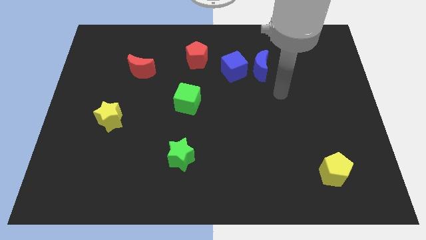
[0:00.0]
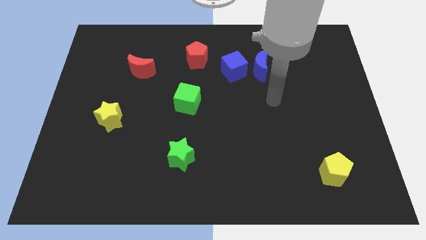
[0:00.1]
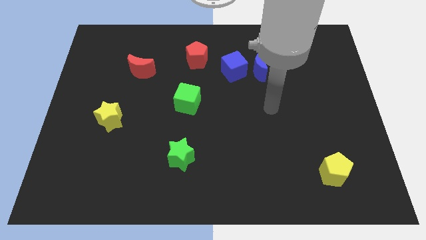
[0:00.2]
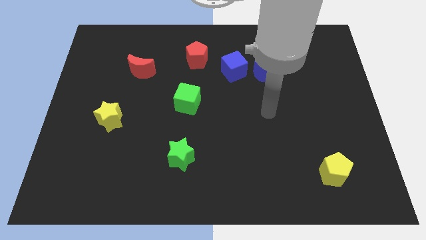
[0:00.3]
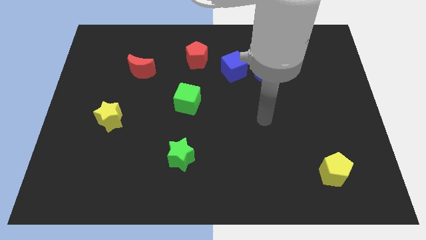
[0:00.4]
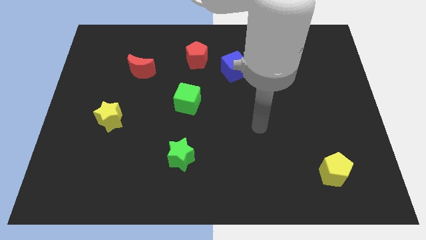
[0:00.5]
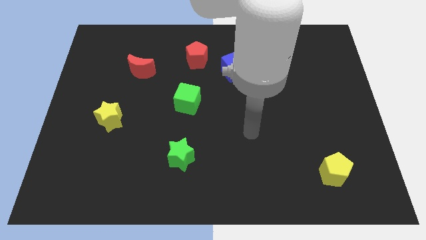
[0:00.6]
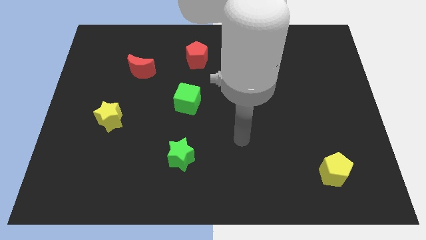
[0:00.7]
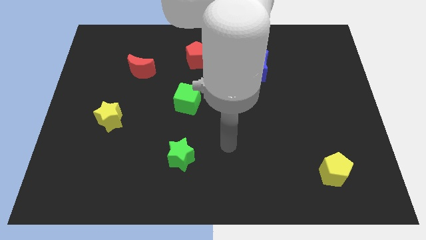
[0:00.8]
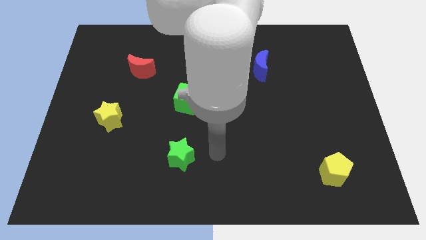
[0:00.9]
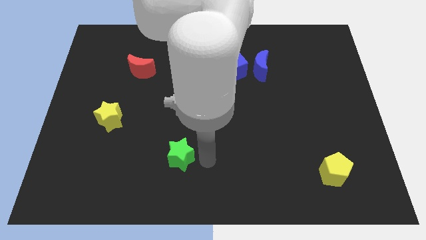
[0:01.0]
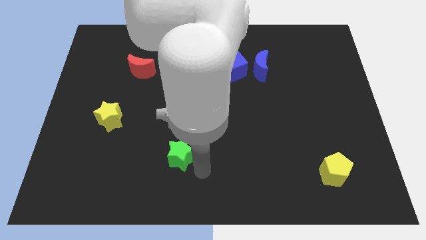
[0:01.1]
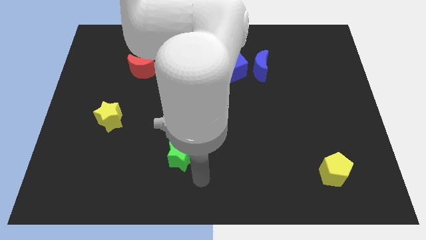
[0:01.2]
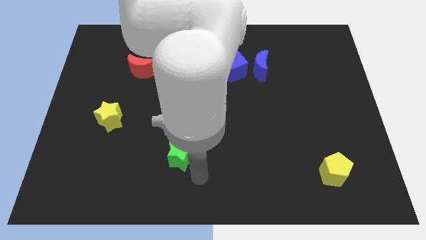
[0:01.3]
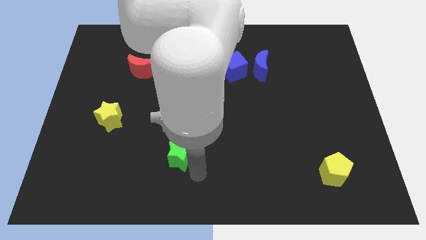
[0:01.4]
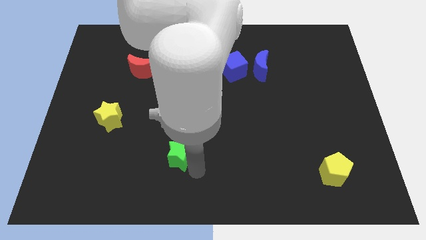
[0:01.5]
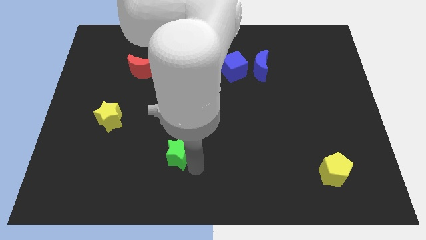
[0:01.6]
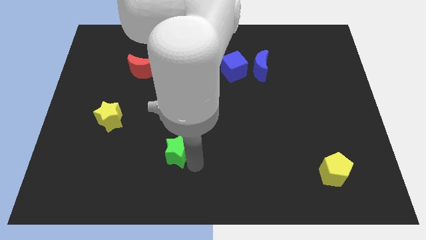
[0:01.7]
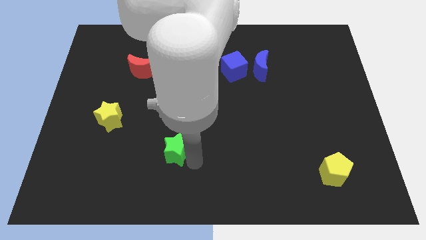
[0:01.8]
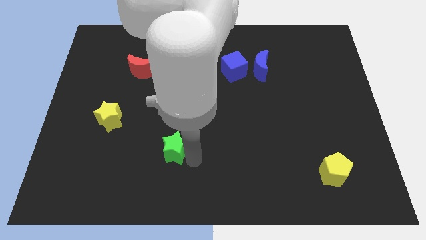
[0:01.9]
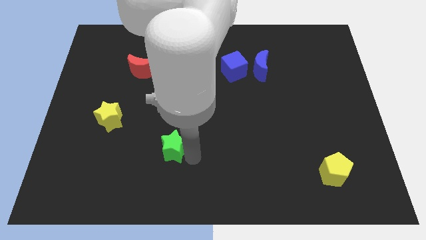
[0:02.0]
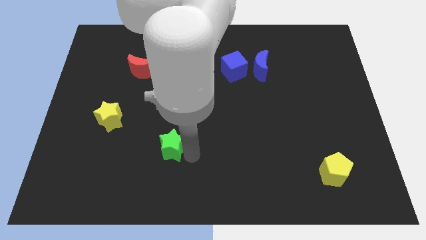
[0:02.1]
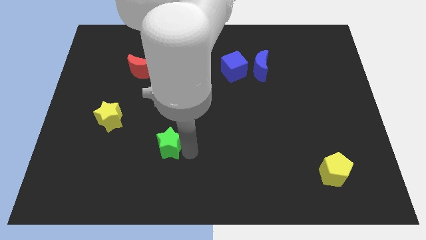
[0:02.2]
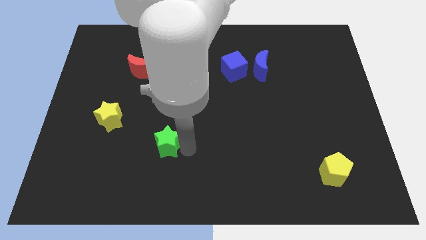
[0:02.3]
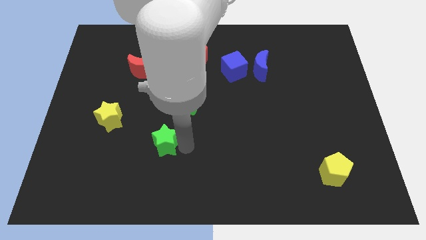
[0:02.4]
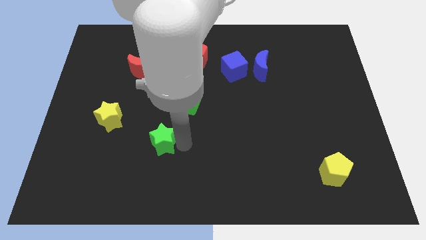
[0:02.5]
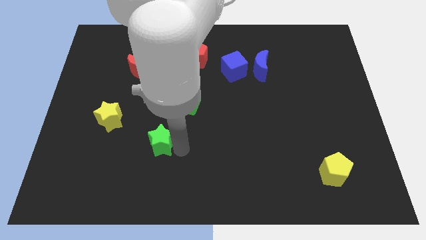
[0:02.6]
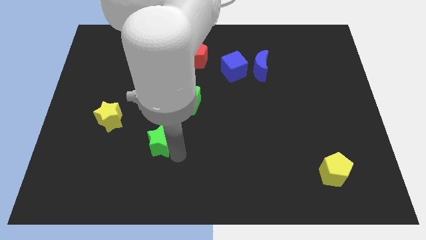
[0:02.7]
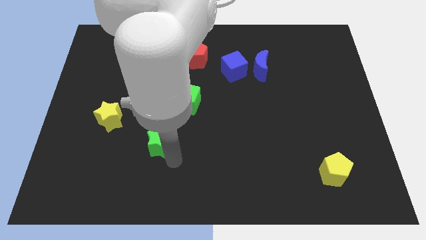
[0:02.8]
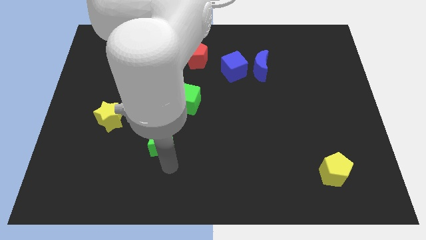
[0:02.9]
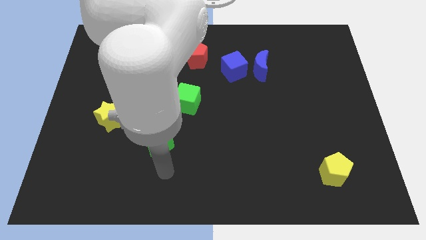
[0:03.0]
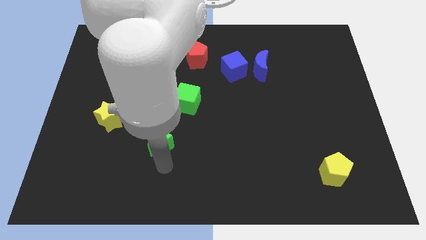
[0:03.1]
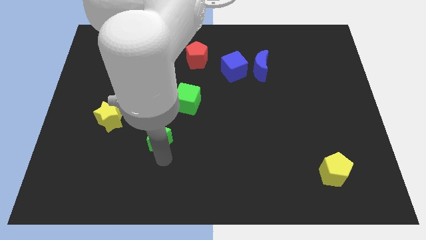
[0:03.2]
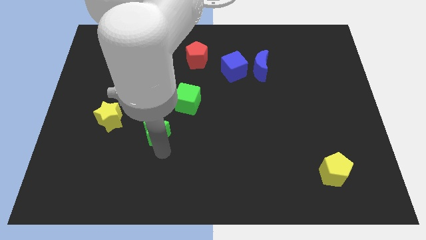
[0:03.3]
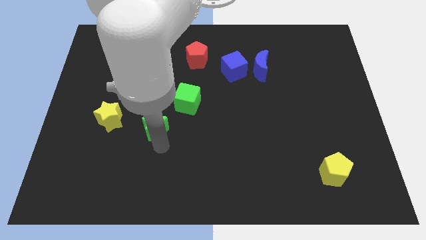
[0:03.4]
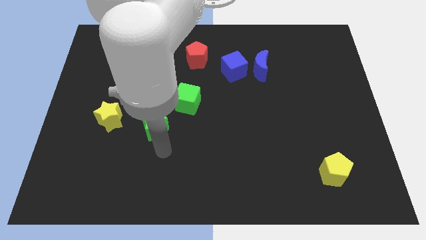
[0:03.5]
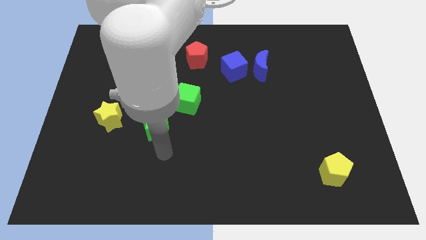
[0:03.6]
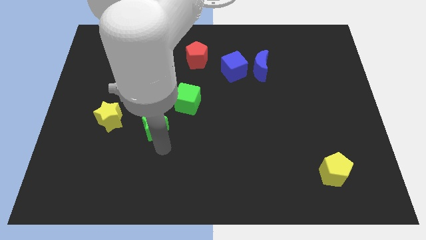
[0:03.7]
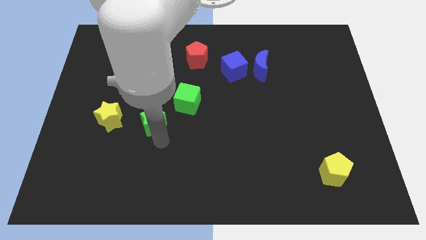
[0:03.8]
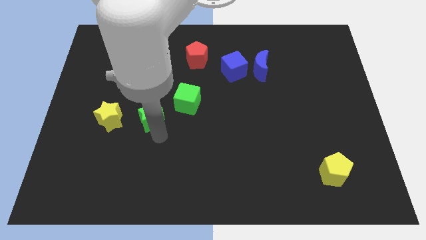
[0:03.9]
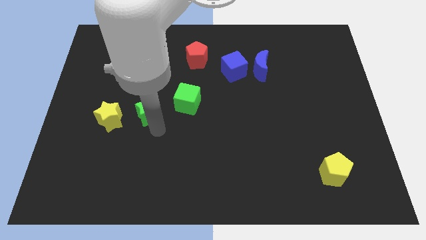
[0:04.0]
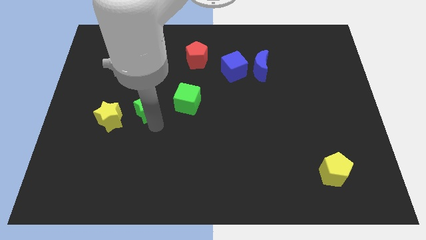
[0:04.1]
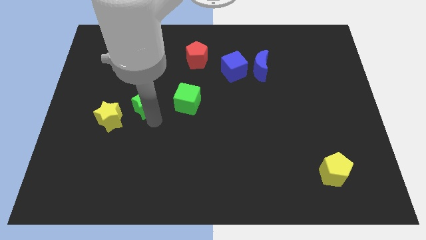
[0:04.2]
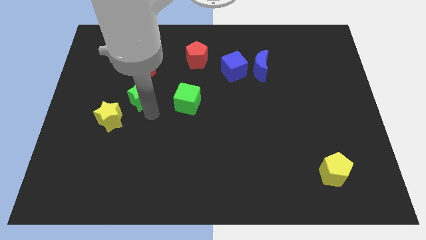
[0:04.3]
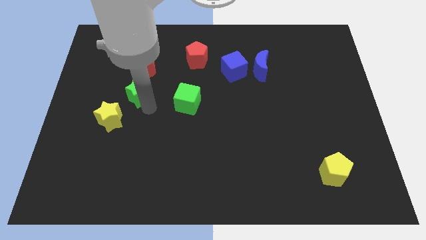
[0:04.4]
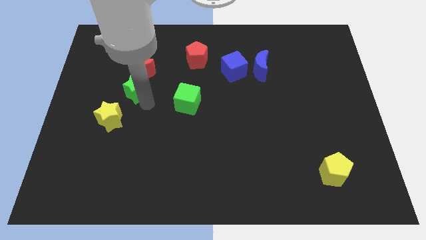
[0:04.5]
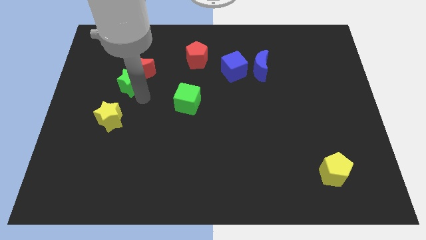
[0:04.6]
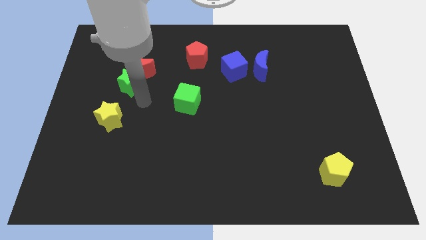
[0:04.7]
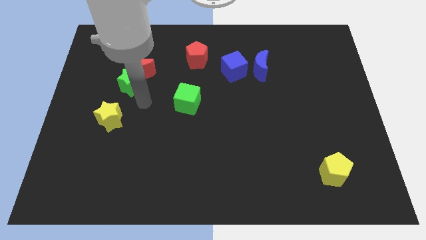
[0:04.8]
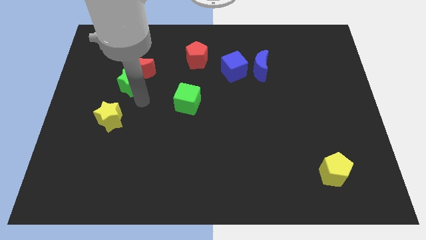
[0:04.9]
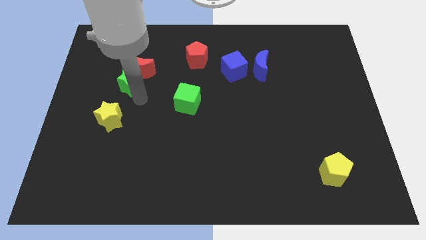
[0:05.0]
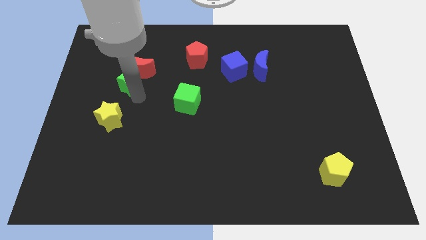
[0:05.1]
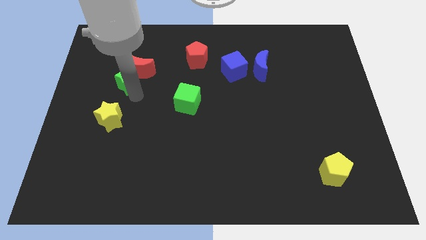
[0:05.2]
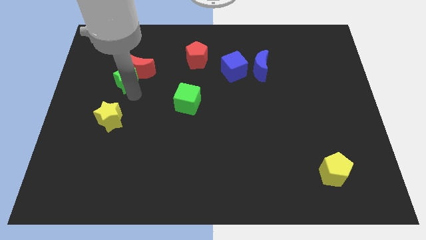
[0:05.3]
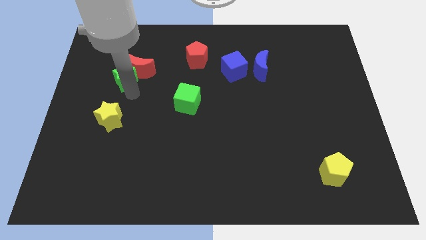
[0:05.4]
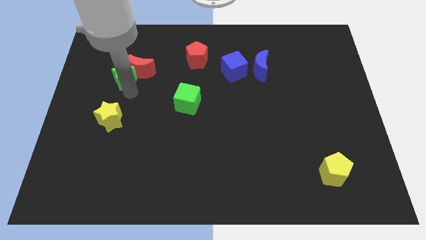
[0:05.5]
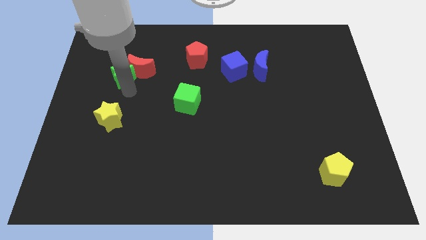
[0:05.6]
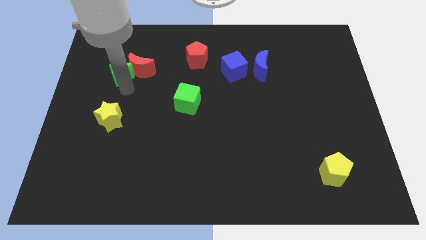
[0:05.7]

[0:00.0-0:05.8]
put the green star diagonally up and to the left of the red moon

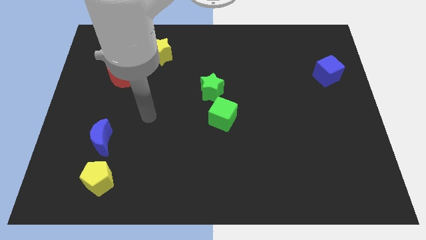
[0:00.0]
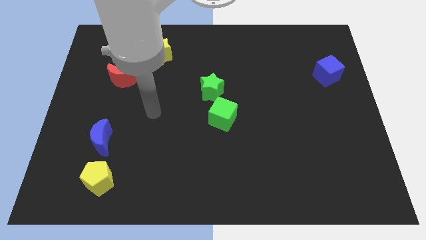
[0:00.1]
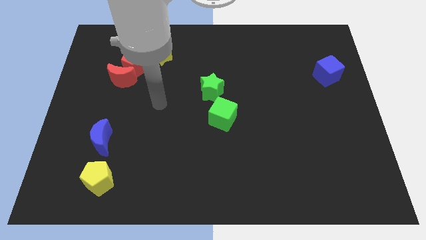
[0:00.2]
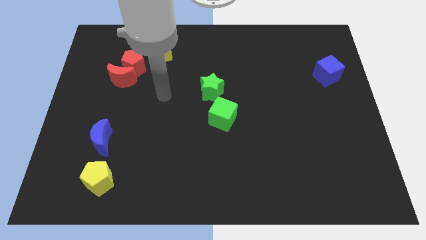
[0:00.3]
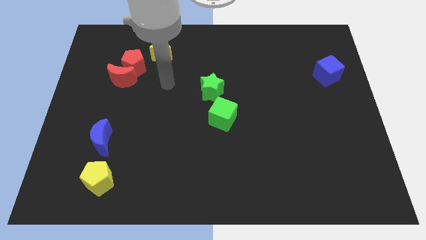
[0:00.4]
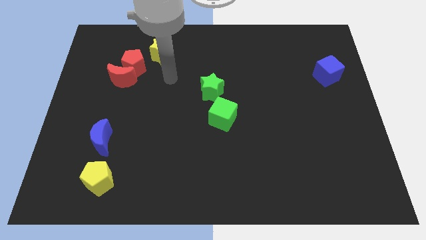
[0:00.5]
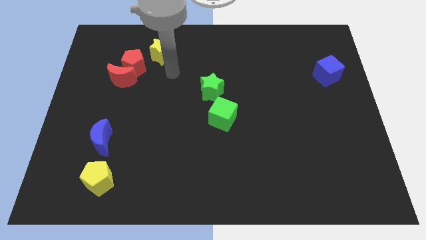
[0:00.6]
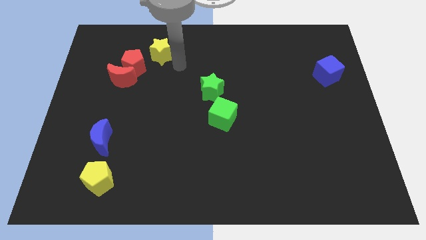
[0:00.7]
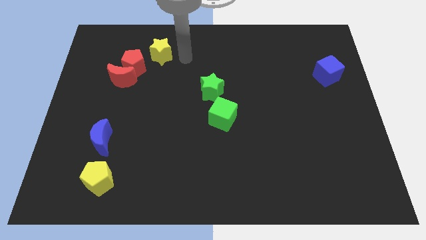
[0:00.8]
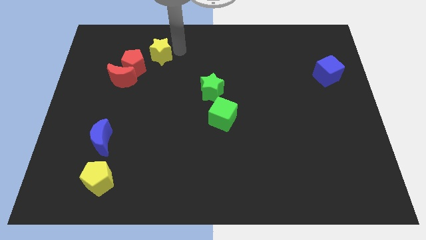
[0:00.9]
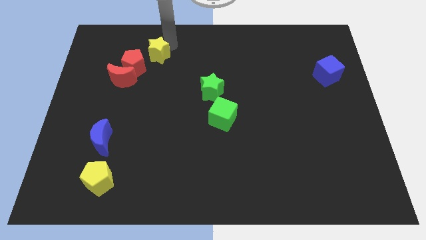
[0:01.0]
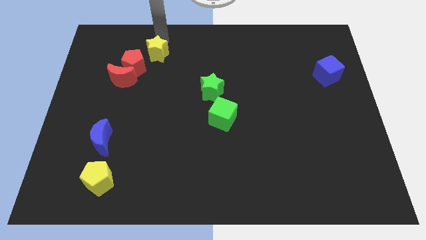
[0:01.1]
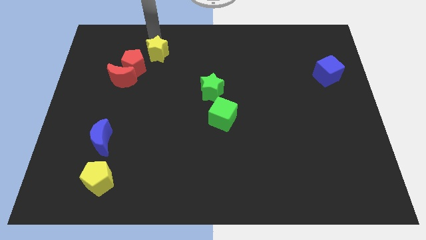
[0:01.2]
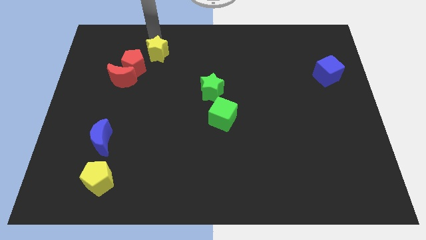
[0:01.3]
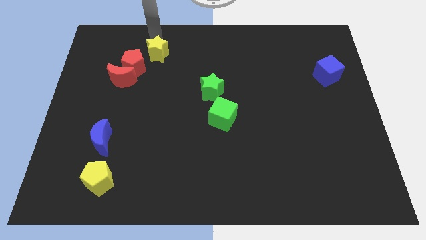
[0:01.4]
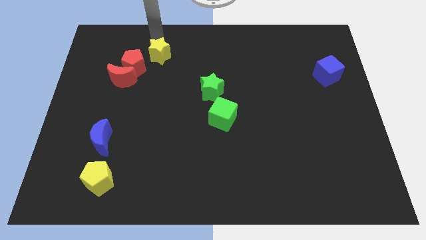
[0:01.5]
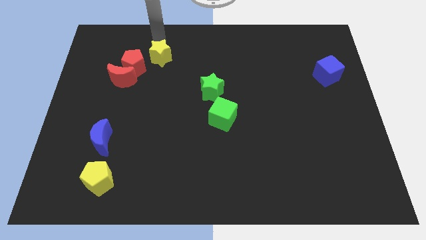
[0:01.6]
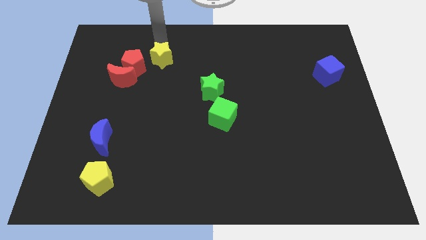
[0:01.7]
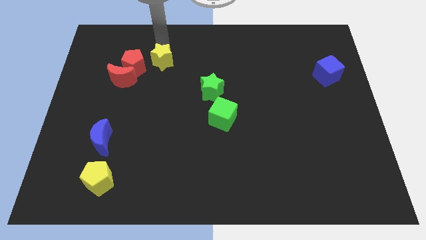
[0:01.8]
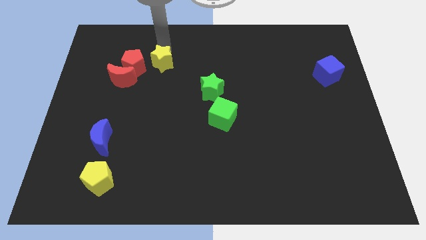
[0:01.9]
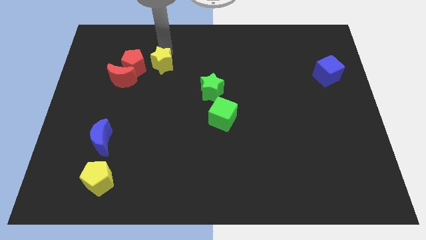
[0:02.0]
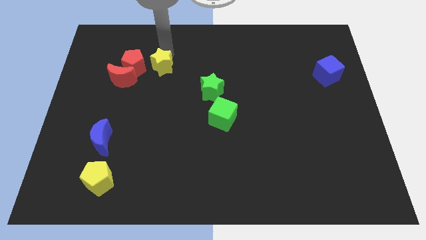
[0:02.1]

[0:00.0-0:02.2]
push the yellow star just right of the red moon

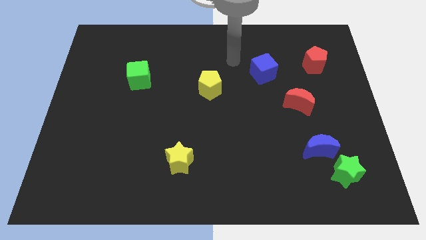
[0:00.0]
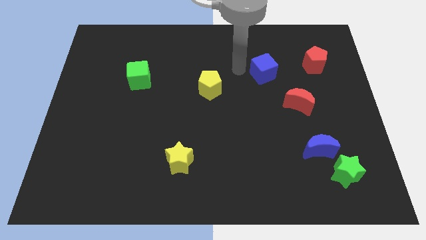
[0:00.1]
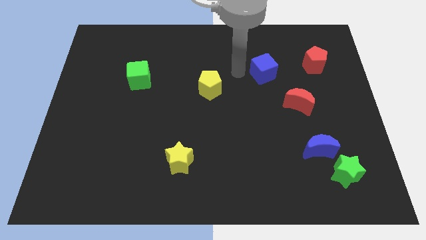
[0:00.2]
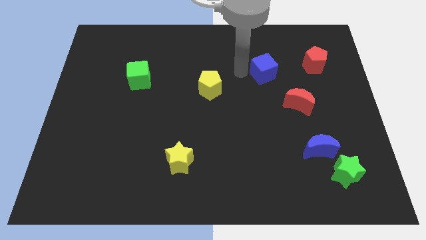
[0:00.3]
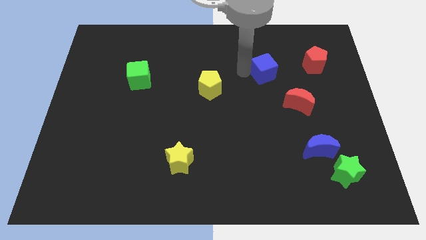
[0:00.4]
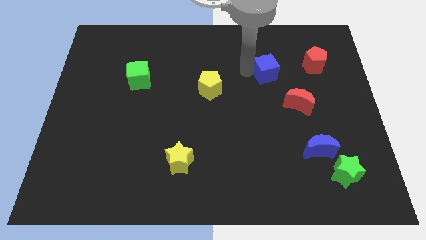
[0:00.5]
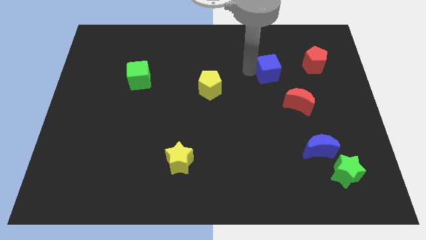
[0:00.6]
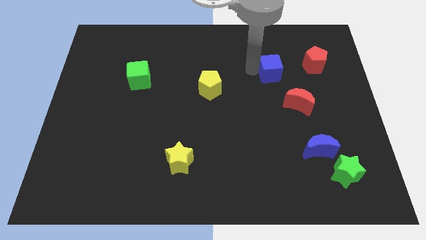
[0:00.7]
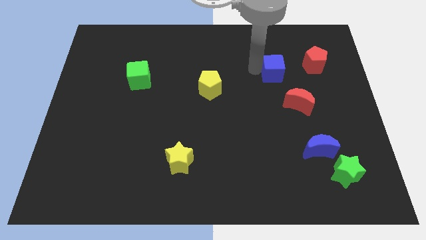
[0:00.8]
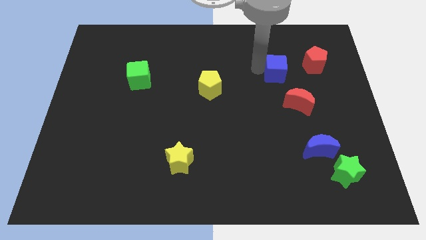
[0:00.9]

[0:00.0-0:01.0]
slide the blue cube to the top side of the red moon
